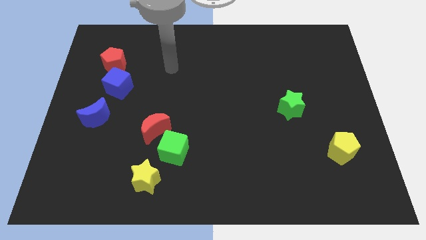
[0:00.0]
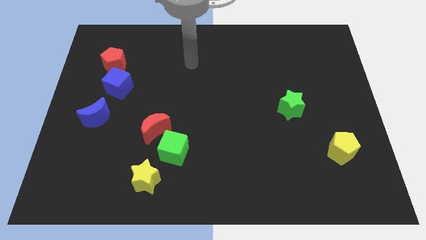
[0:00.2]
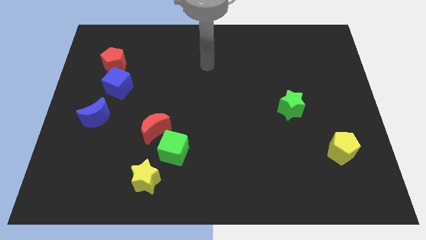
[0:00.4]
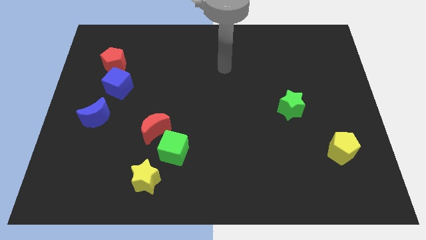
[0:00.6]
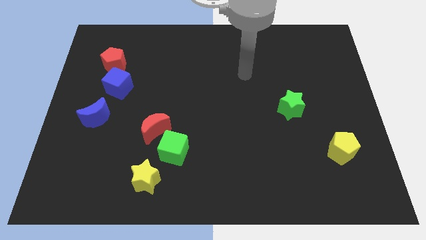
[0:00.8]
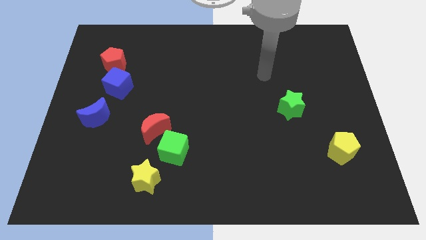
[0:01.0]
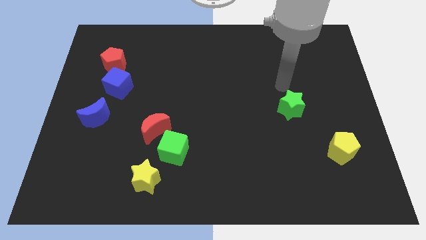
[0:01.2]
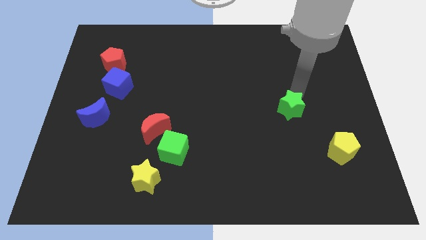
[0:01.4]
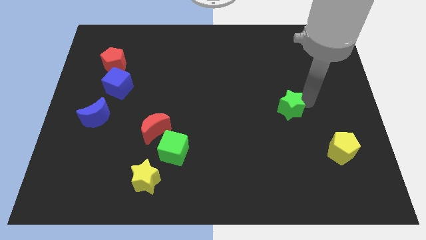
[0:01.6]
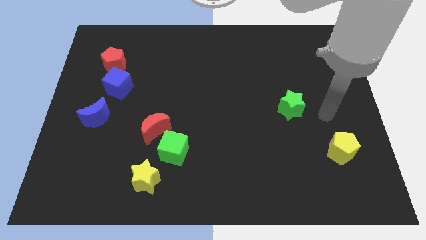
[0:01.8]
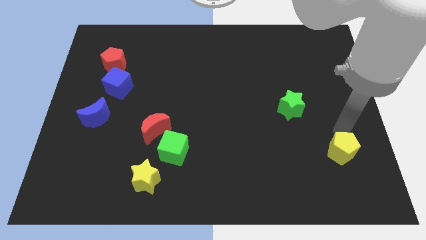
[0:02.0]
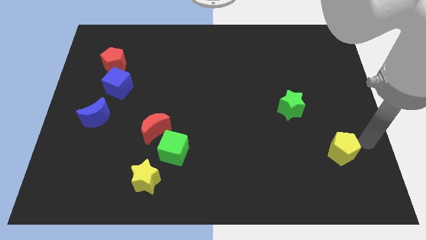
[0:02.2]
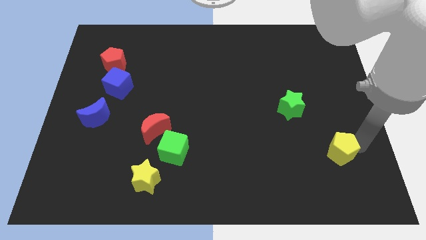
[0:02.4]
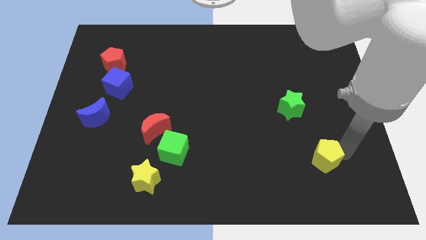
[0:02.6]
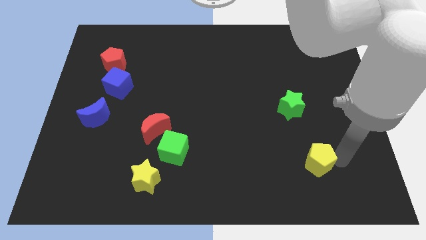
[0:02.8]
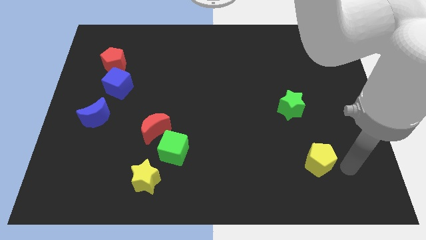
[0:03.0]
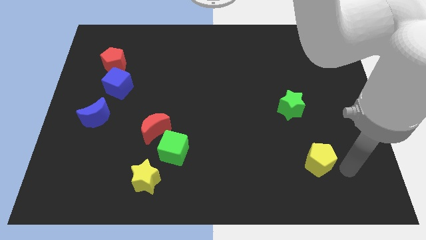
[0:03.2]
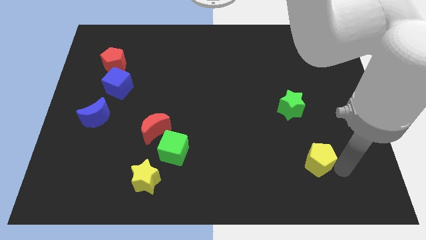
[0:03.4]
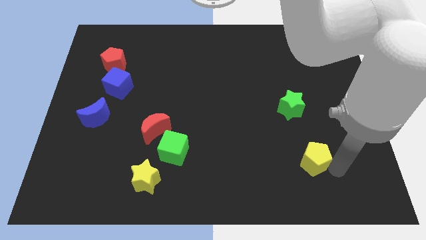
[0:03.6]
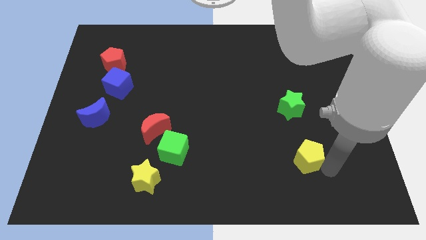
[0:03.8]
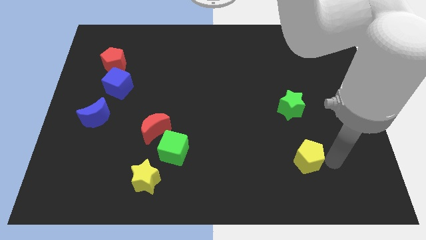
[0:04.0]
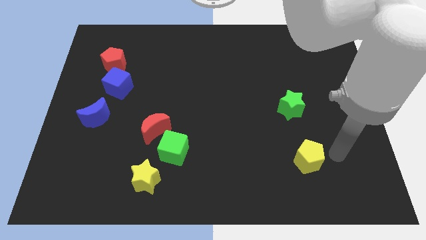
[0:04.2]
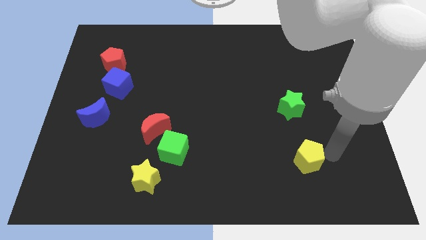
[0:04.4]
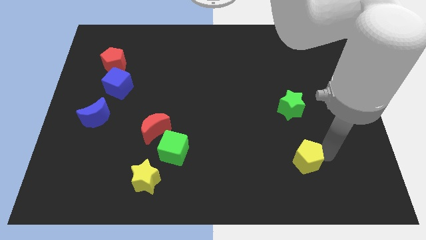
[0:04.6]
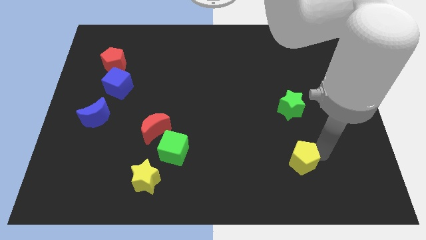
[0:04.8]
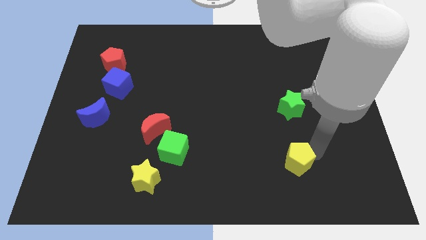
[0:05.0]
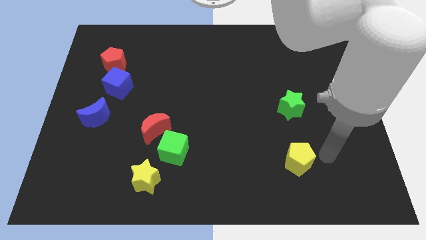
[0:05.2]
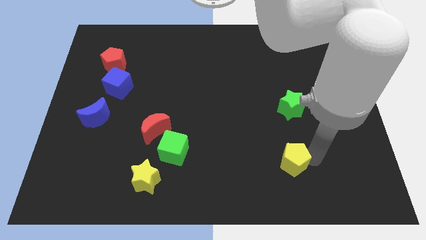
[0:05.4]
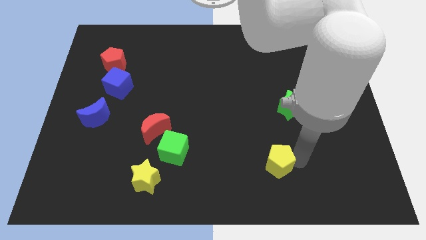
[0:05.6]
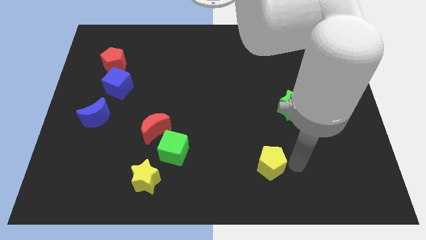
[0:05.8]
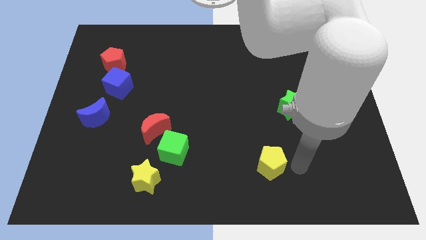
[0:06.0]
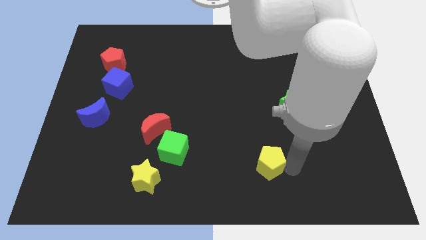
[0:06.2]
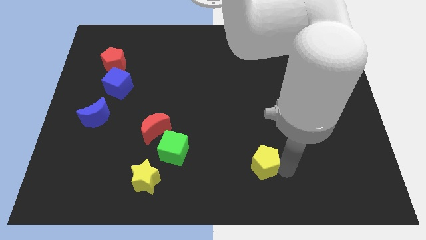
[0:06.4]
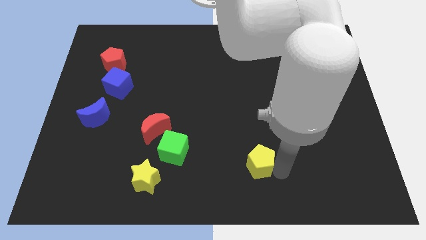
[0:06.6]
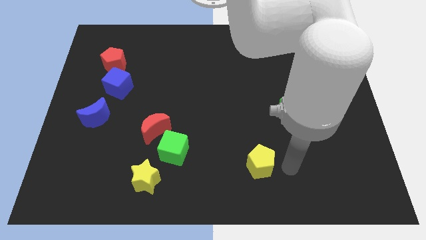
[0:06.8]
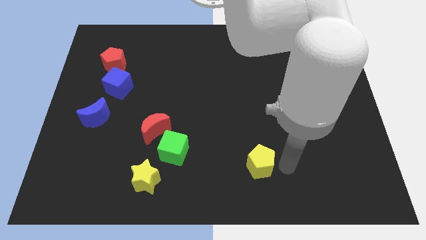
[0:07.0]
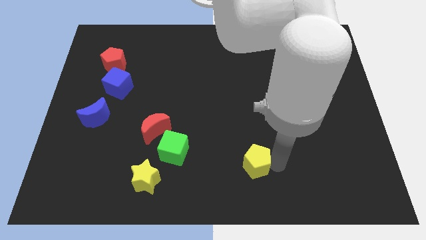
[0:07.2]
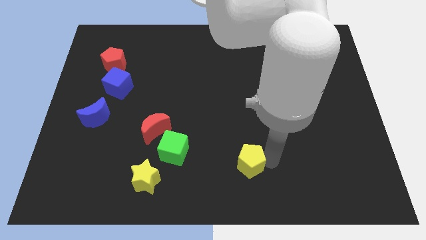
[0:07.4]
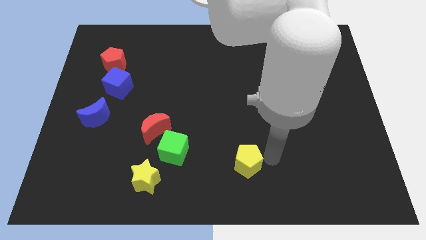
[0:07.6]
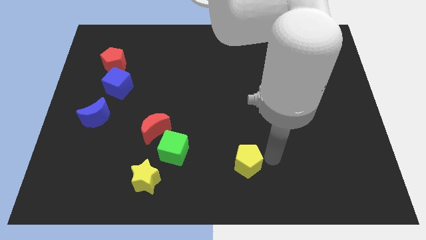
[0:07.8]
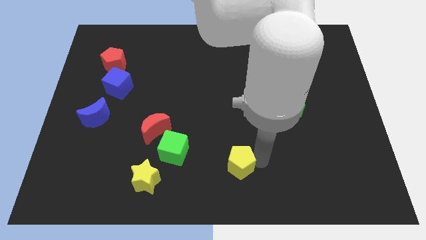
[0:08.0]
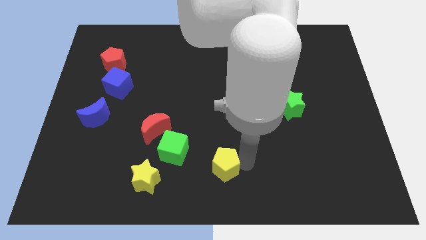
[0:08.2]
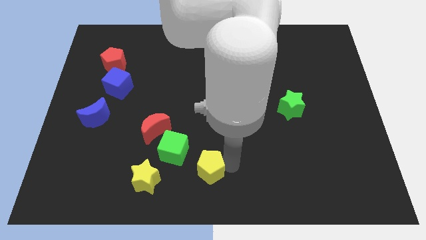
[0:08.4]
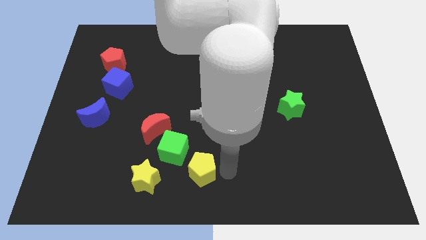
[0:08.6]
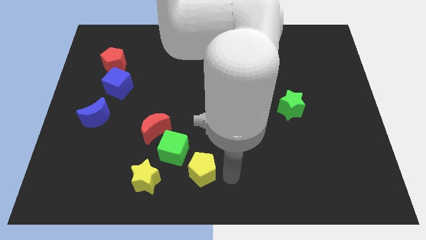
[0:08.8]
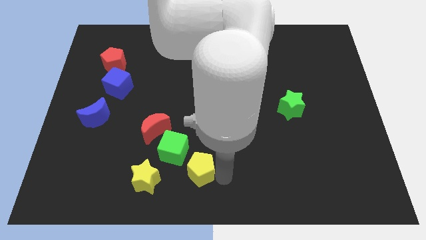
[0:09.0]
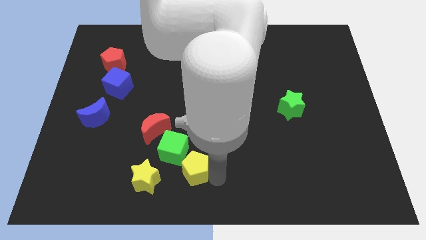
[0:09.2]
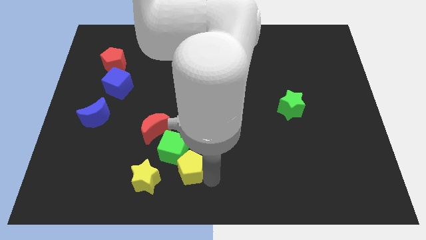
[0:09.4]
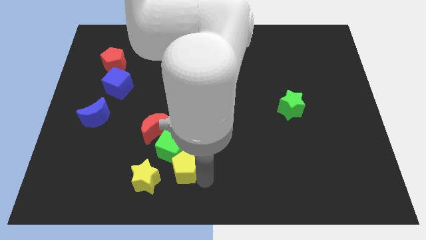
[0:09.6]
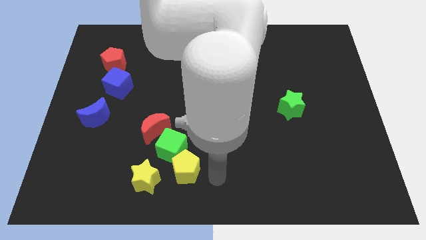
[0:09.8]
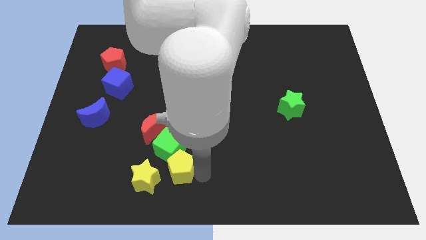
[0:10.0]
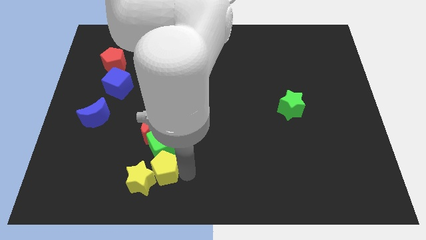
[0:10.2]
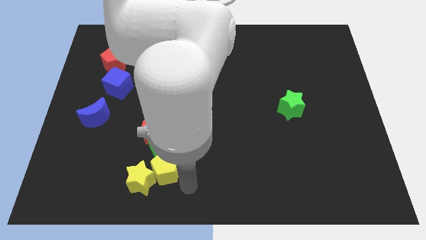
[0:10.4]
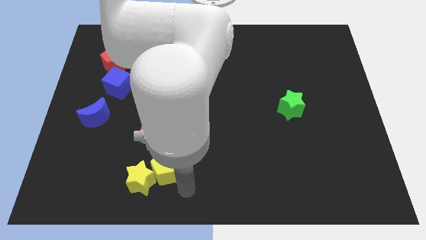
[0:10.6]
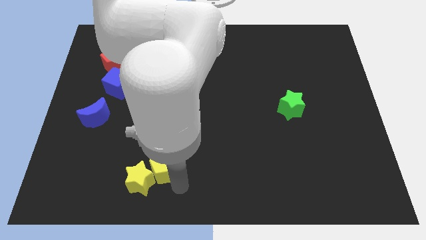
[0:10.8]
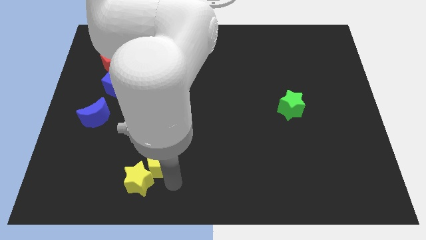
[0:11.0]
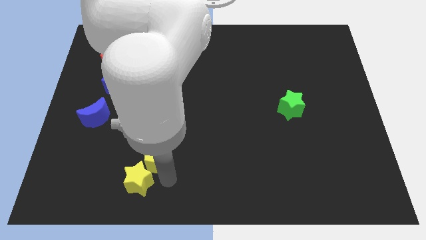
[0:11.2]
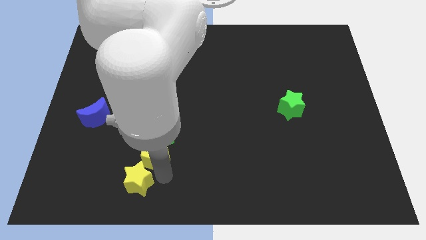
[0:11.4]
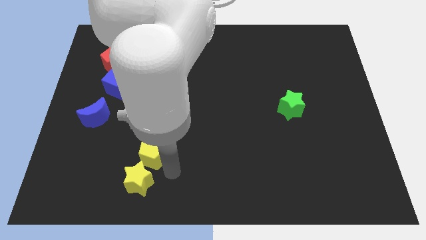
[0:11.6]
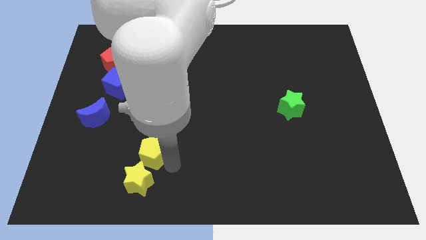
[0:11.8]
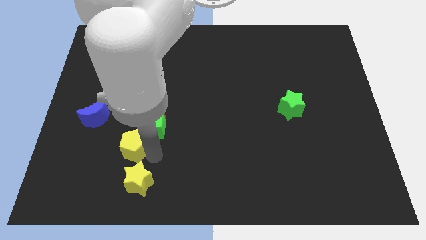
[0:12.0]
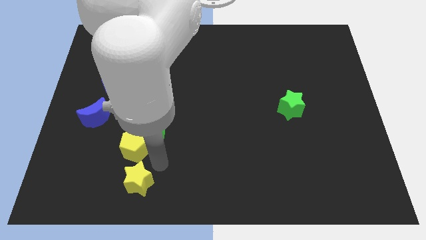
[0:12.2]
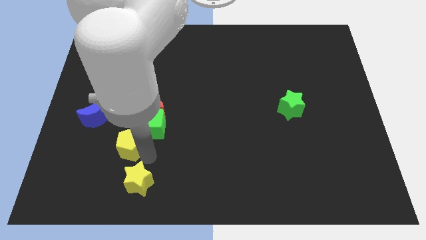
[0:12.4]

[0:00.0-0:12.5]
push the yellow pentagon diagonally down and to the right of the blue moon

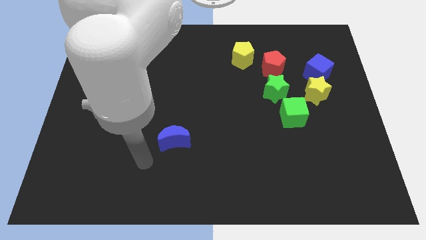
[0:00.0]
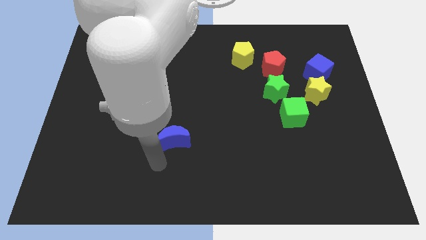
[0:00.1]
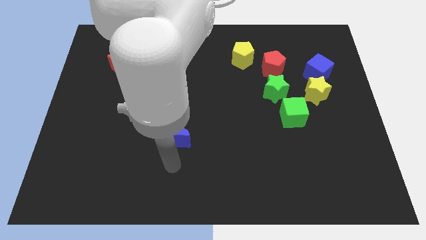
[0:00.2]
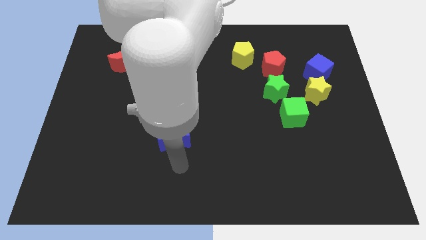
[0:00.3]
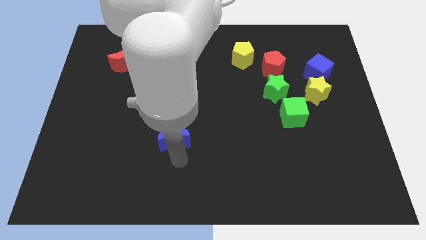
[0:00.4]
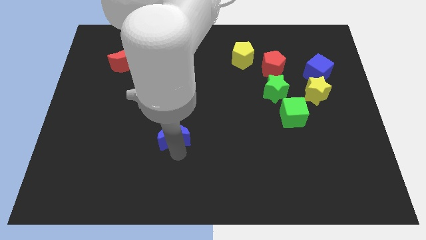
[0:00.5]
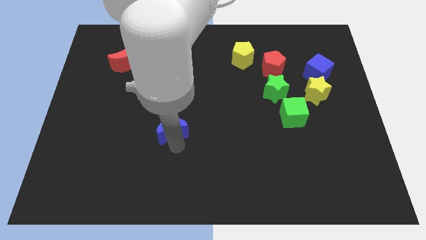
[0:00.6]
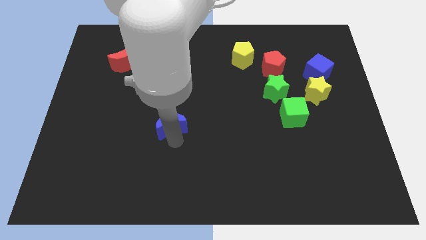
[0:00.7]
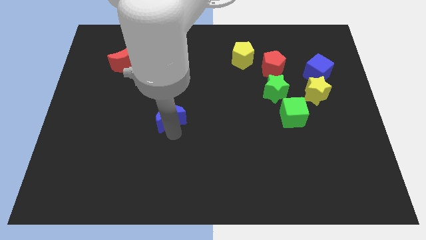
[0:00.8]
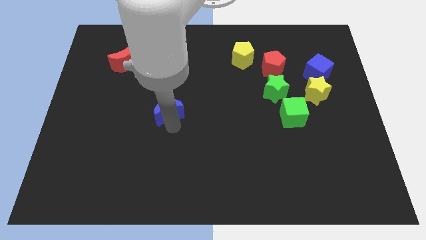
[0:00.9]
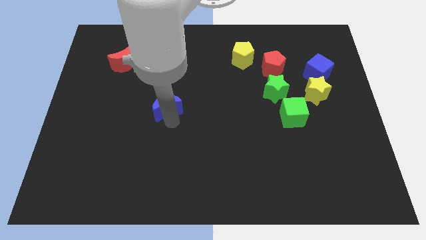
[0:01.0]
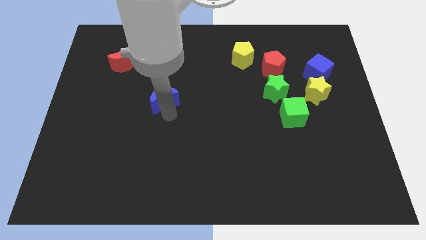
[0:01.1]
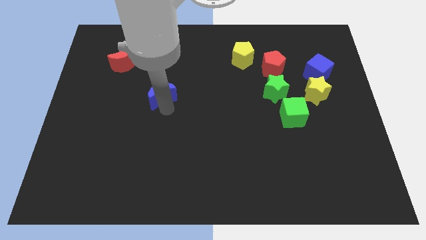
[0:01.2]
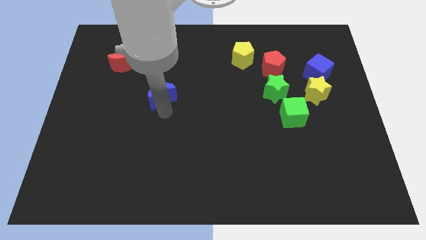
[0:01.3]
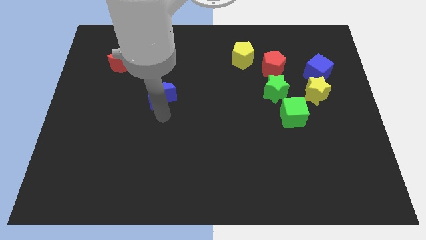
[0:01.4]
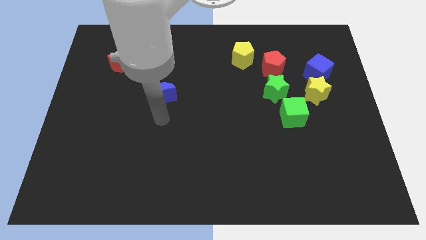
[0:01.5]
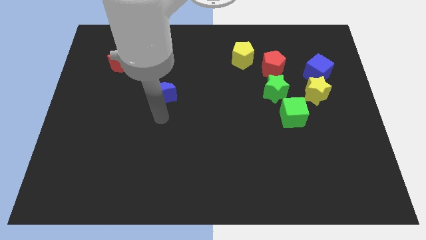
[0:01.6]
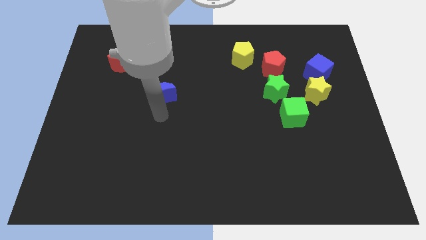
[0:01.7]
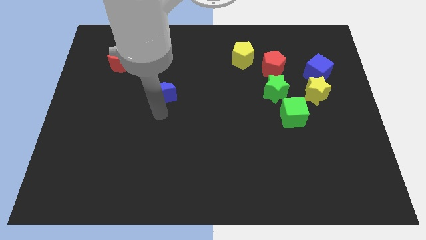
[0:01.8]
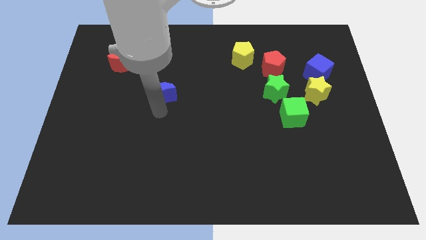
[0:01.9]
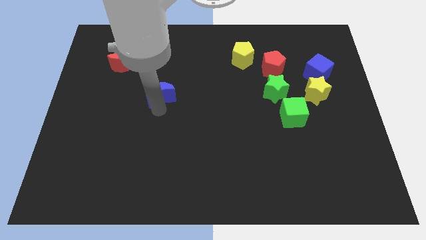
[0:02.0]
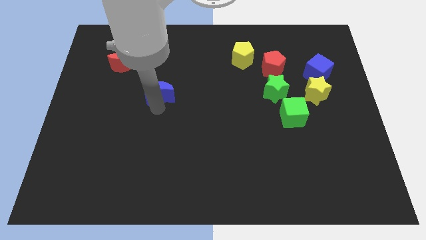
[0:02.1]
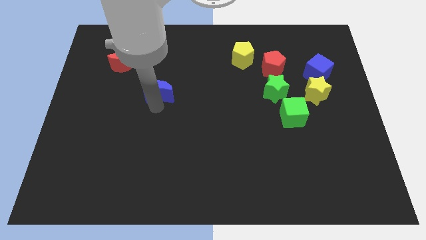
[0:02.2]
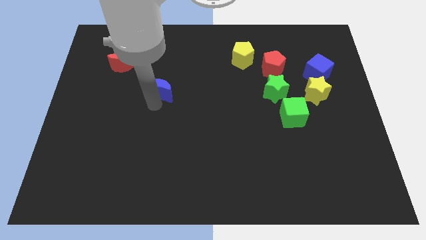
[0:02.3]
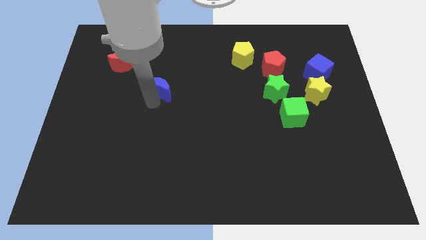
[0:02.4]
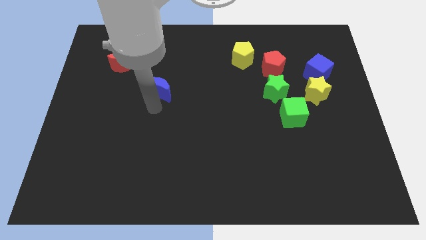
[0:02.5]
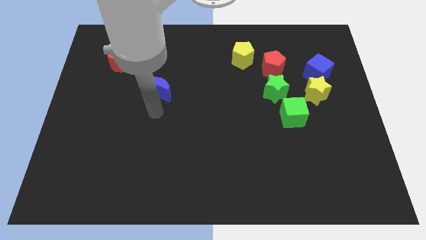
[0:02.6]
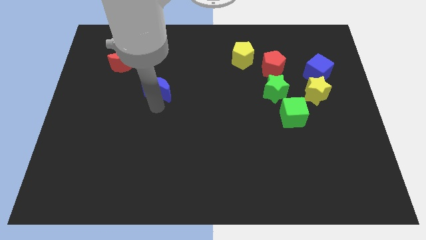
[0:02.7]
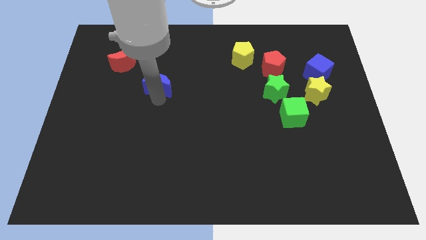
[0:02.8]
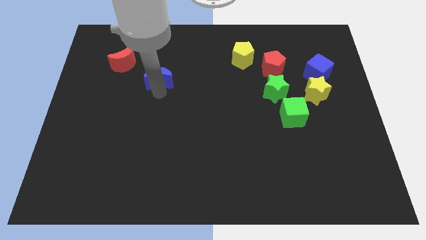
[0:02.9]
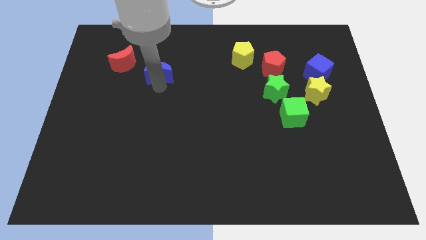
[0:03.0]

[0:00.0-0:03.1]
put the blue moon to the right side of the red moon
